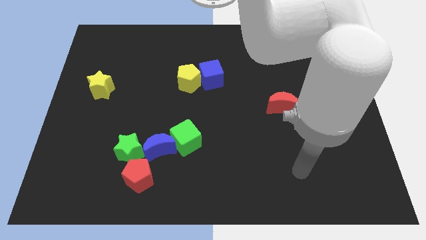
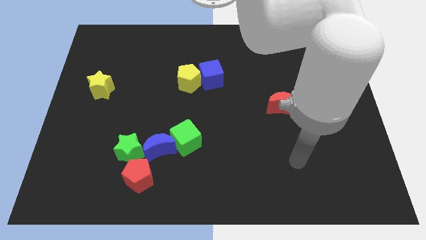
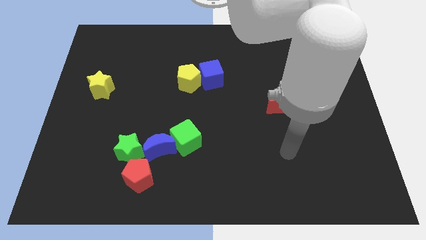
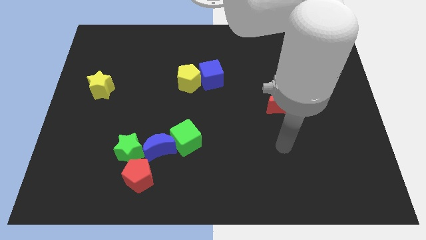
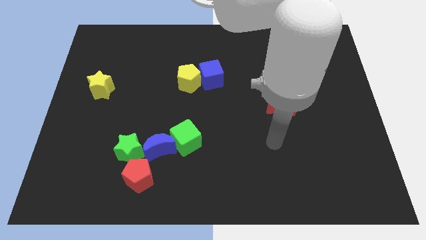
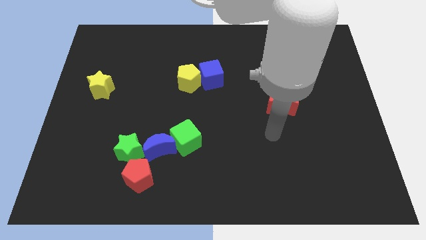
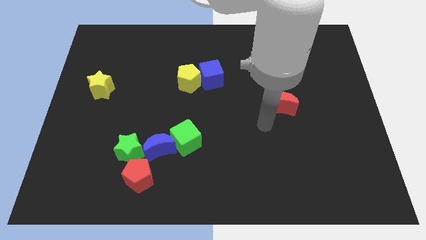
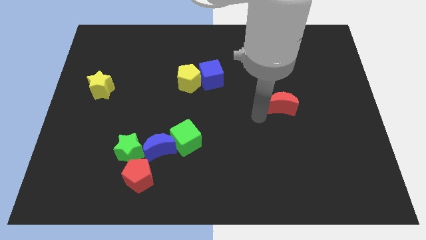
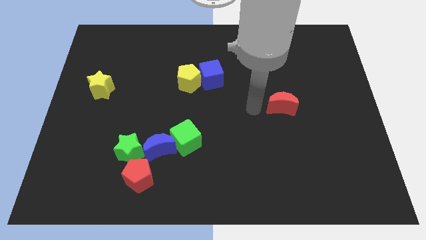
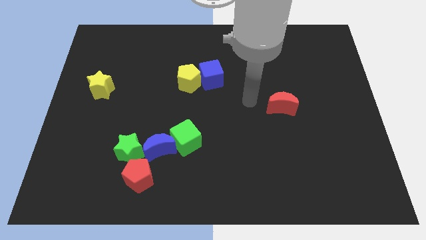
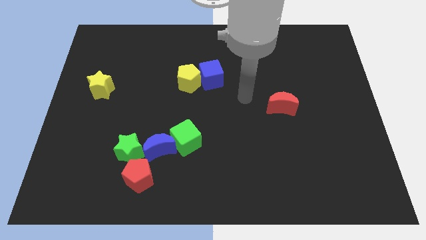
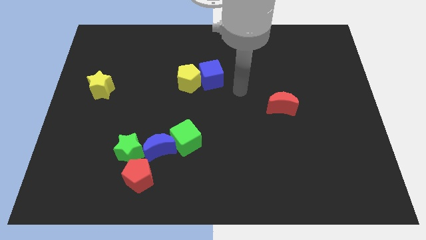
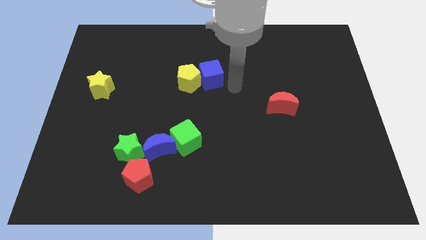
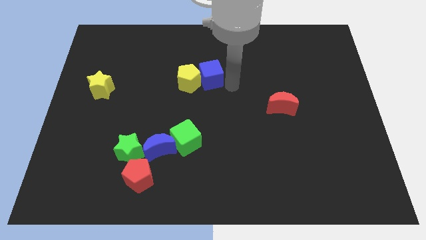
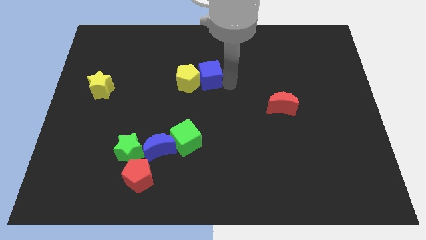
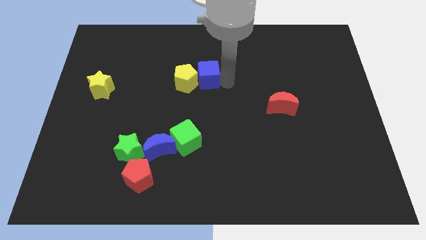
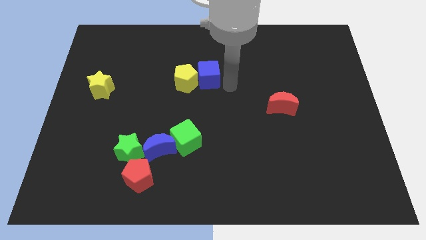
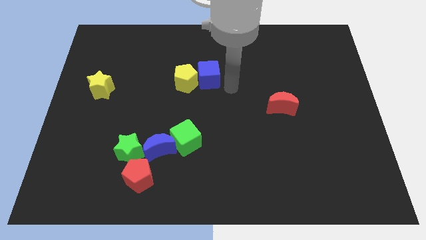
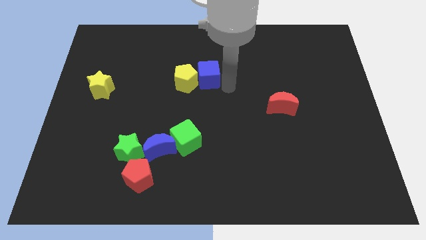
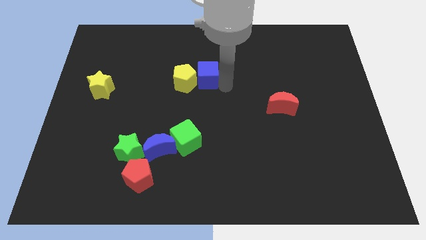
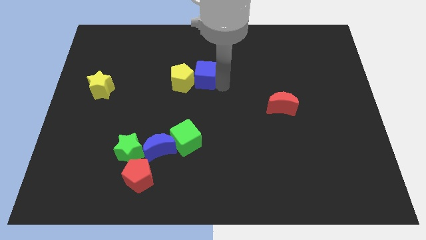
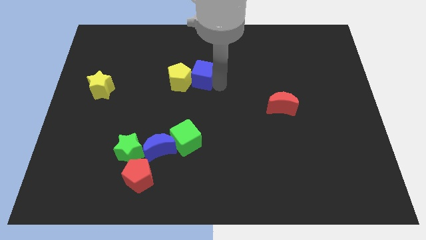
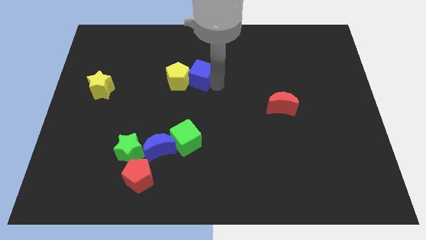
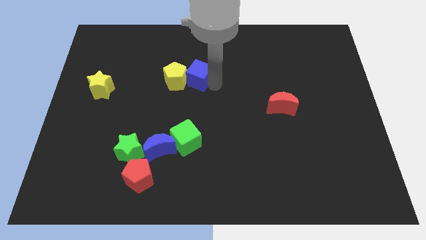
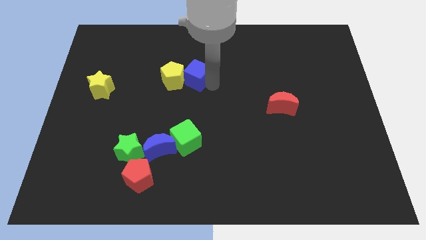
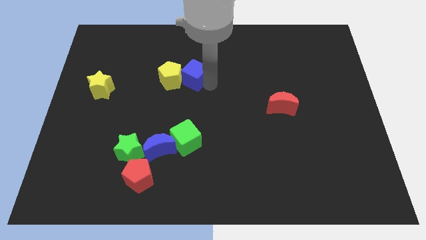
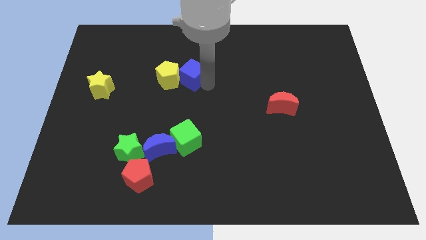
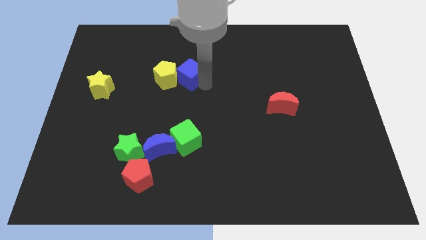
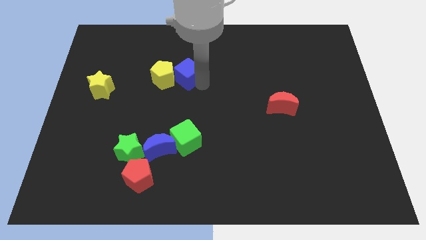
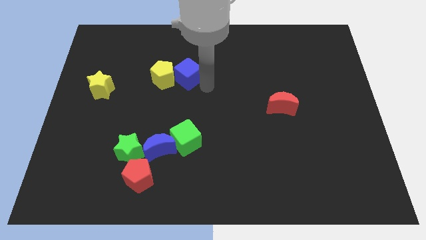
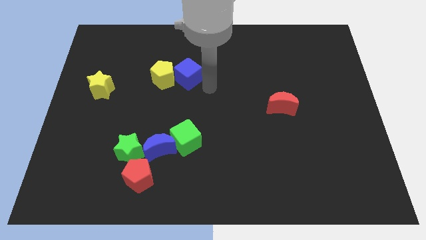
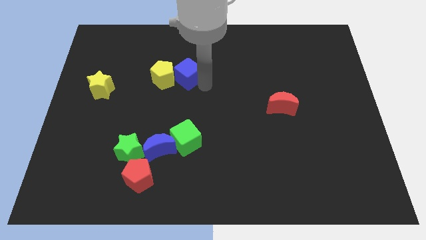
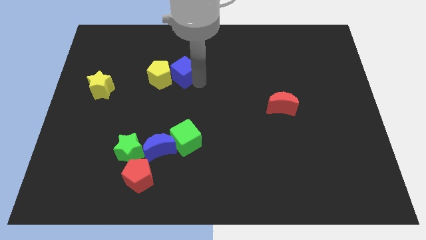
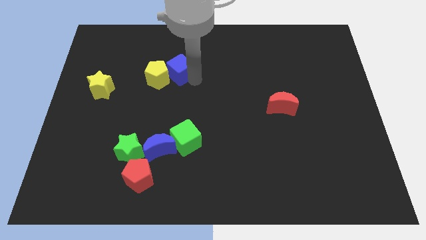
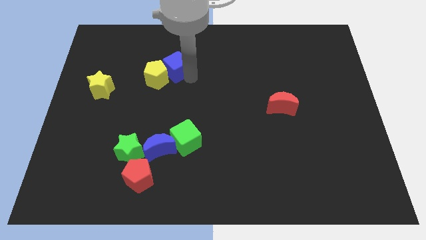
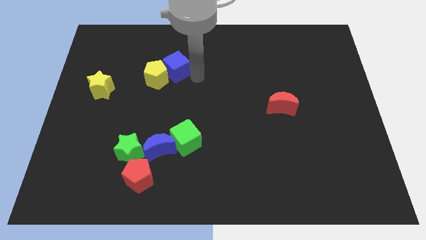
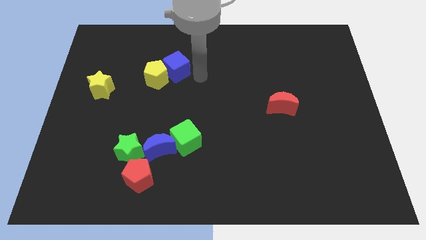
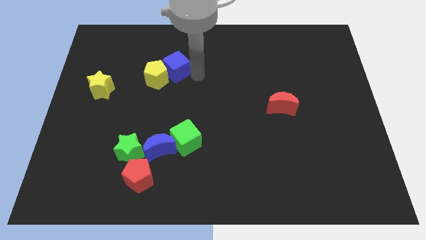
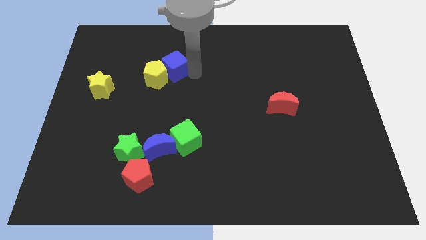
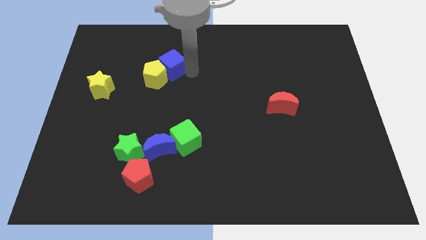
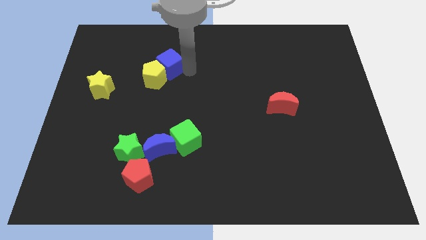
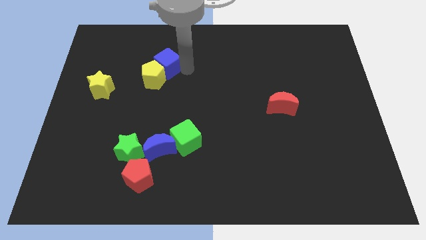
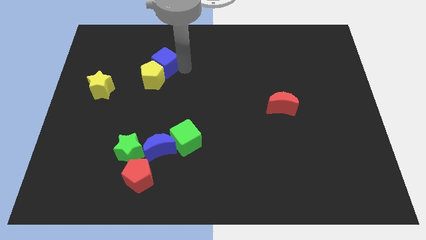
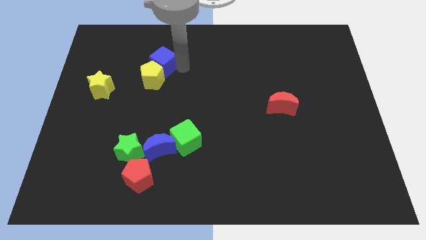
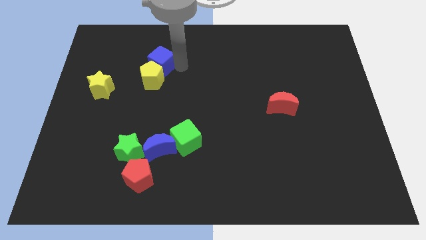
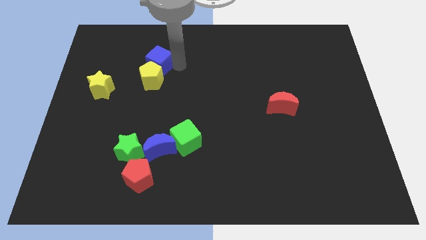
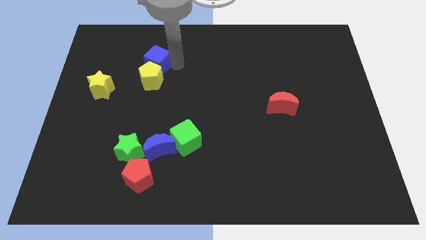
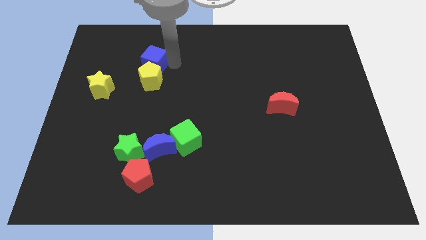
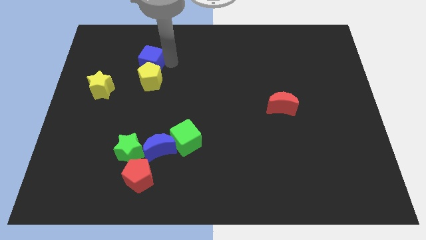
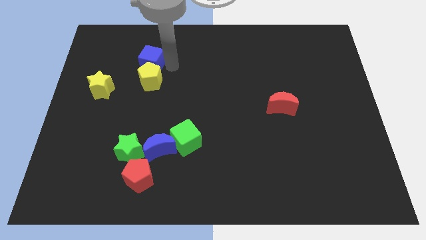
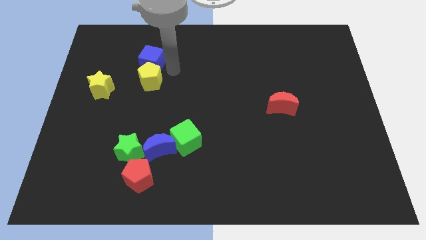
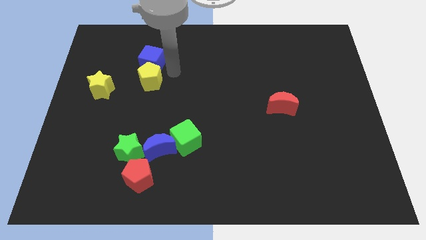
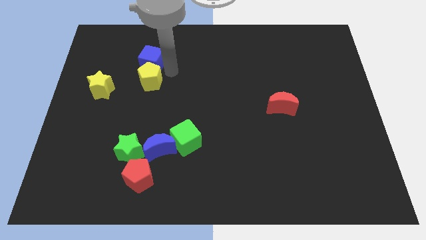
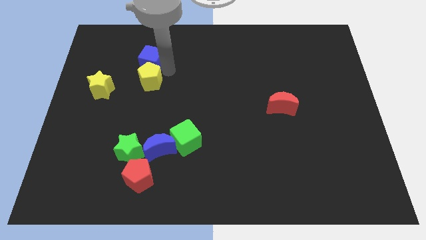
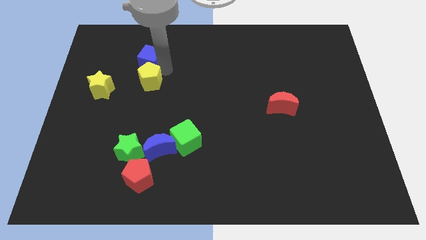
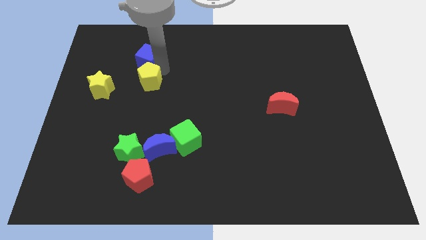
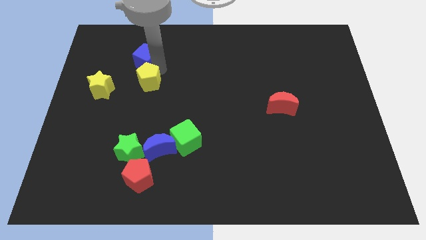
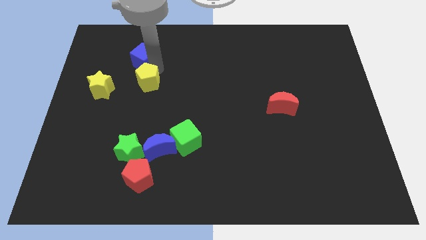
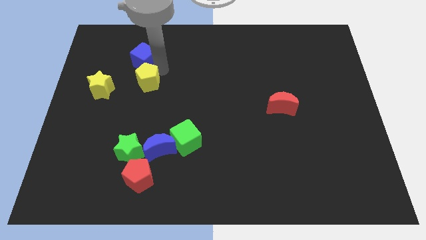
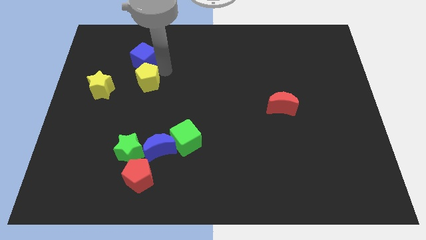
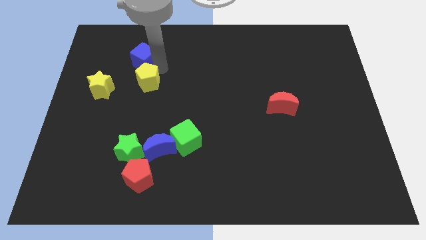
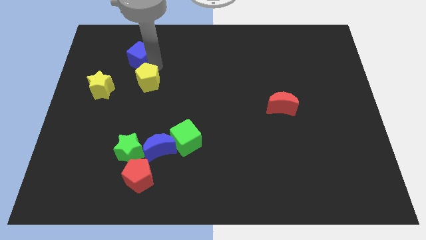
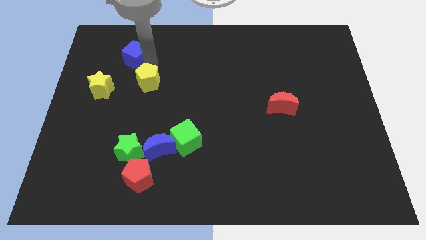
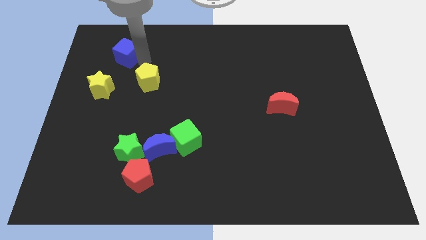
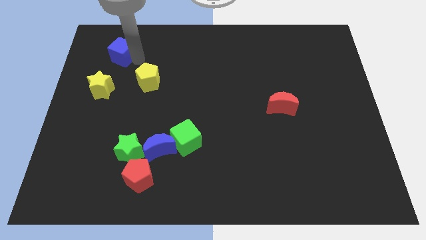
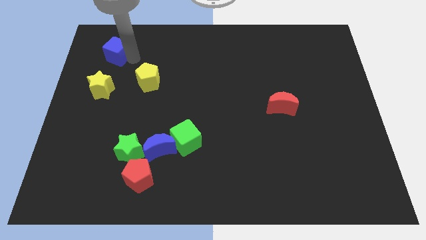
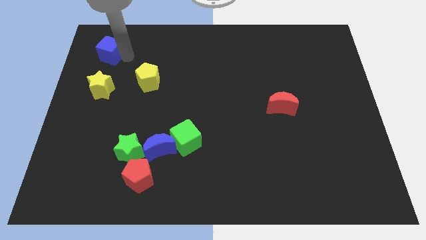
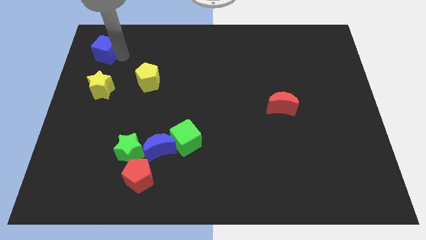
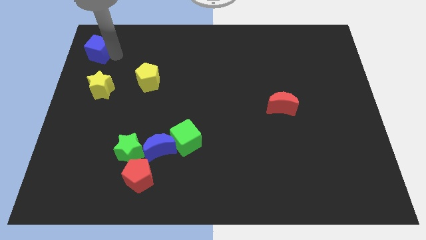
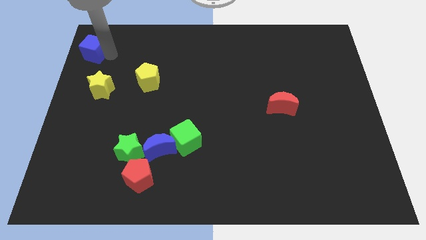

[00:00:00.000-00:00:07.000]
slide the blue cube to the top left of the board
